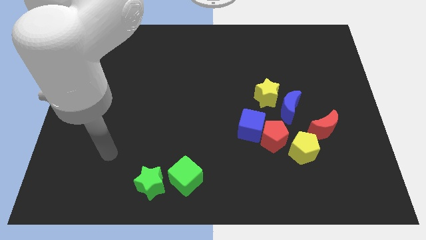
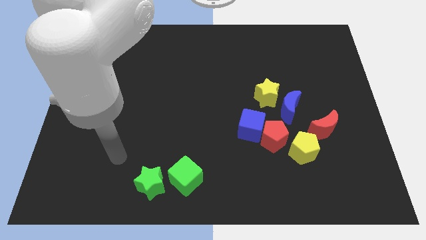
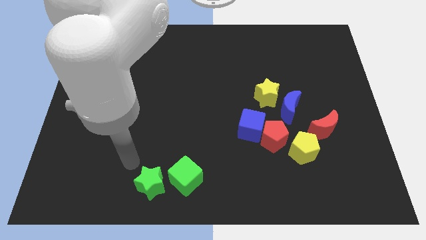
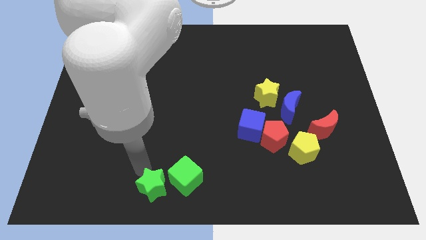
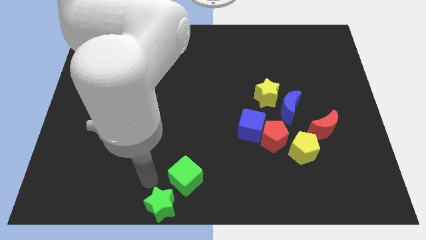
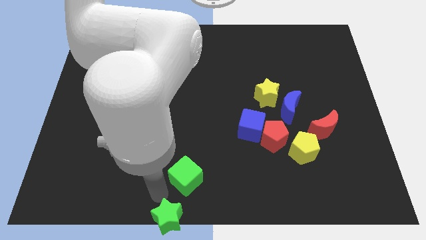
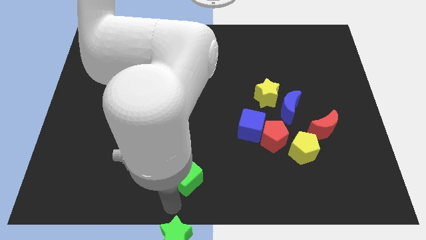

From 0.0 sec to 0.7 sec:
move the green cube away from the green star

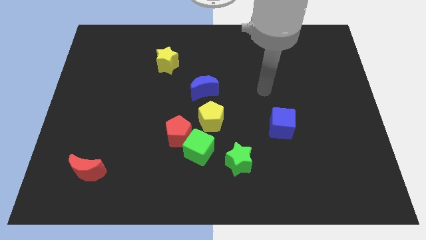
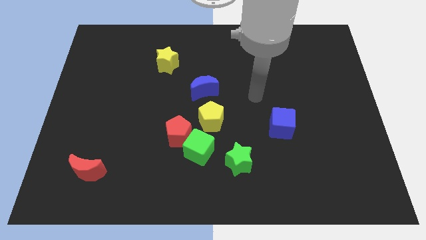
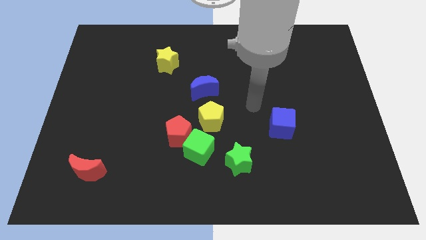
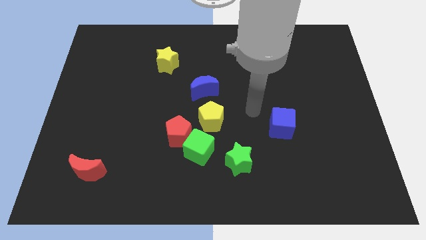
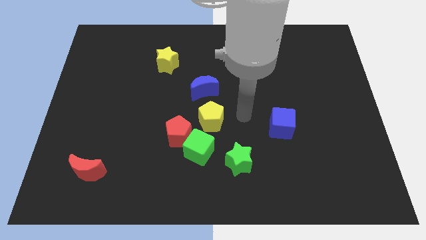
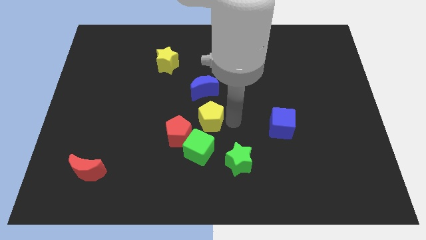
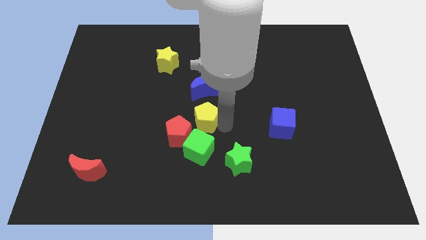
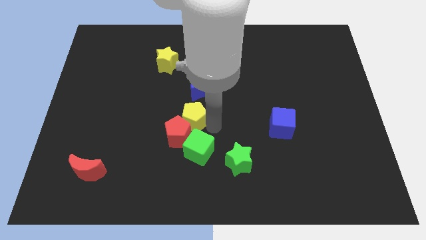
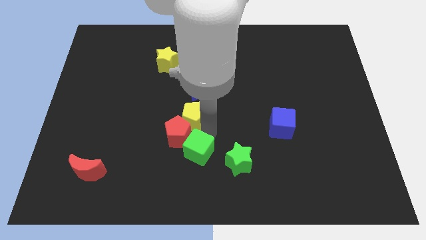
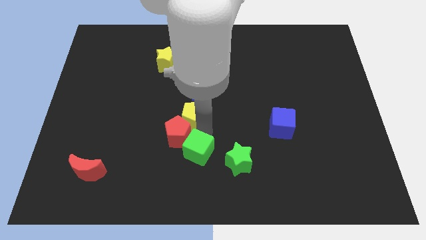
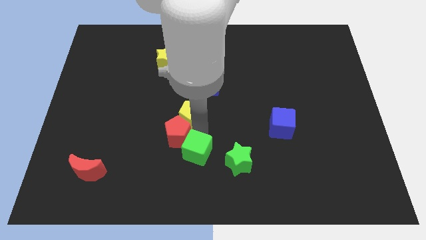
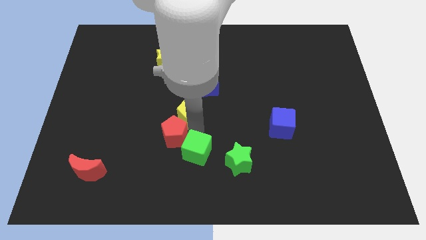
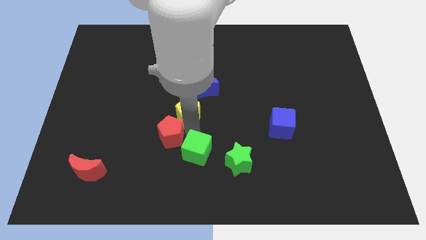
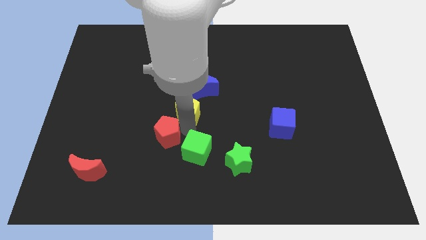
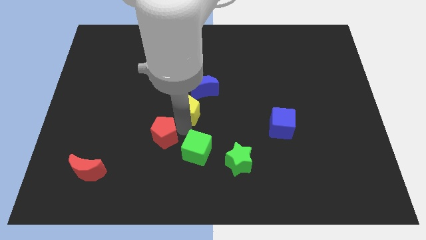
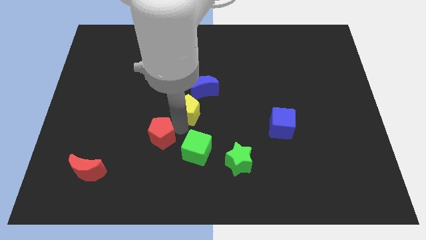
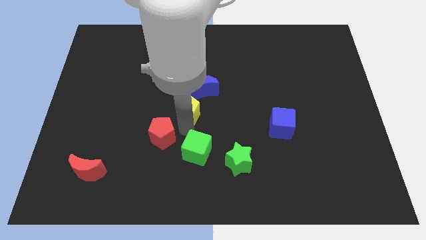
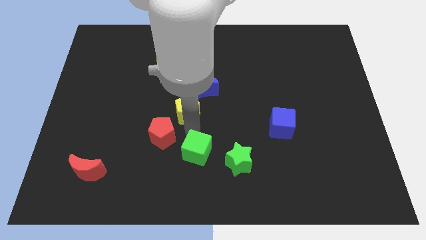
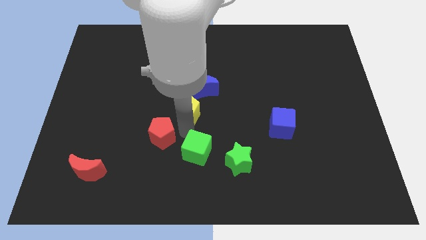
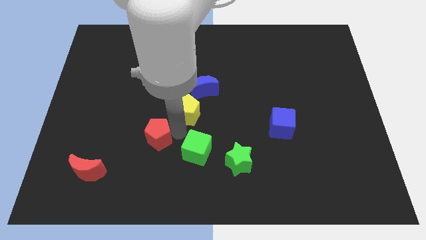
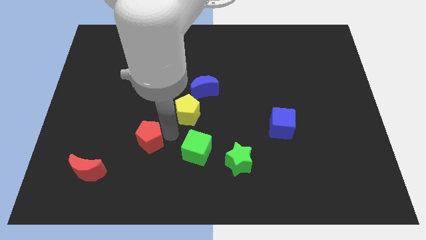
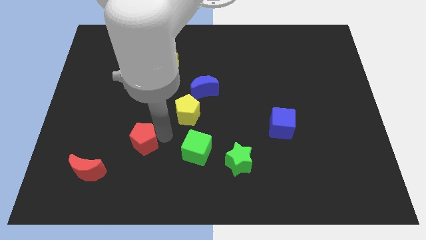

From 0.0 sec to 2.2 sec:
move the red pentagon away from the green cube and yellow pentagon

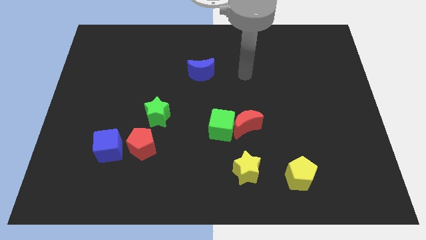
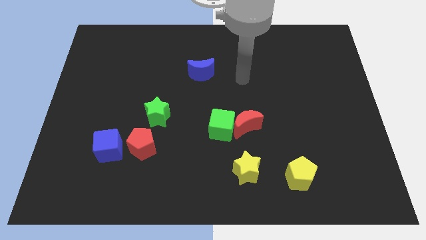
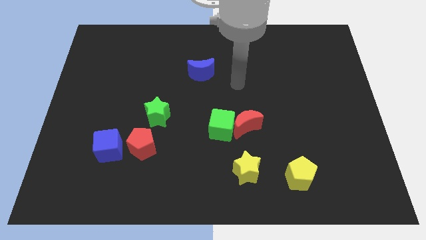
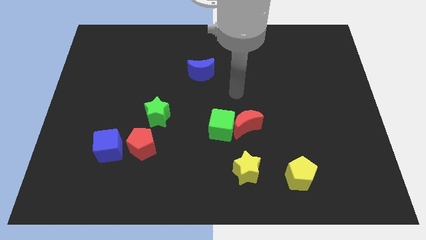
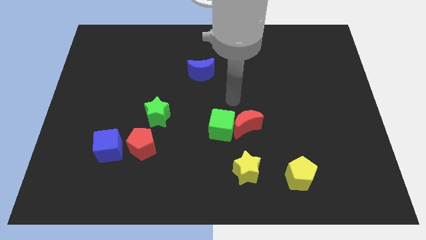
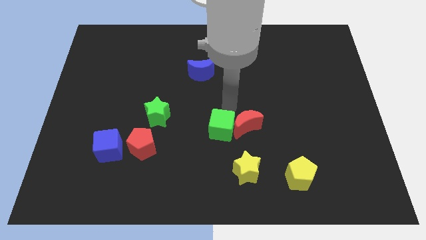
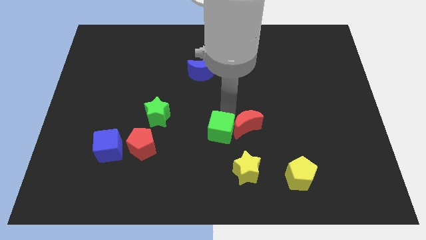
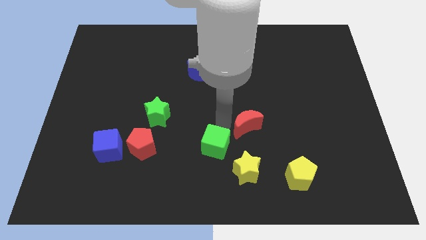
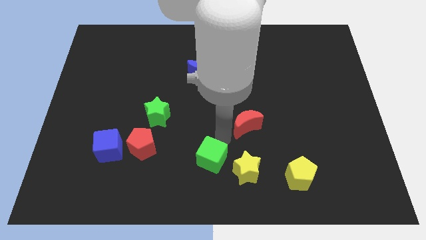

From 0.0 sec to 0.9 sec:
move the red moon away from the green cube

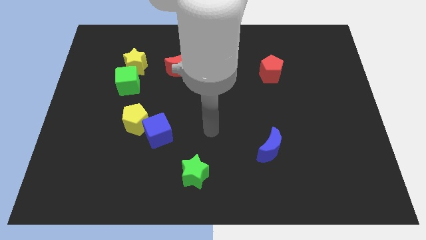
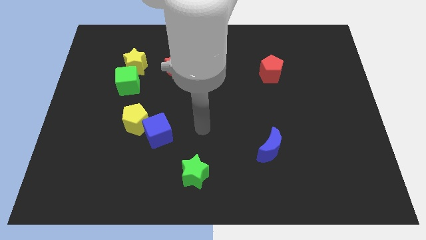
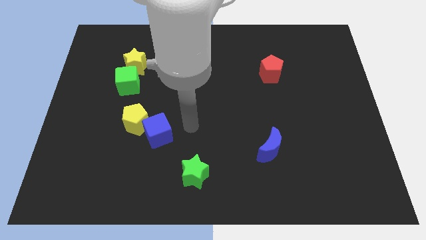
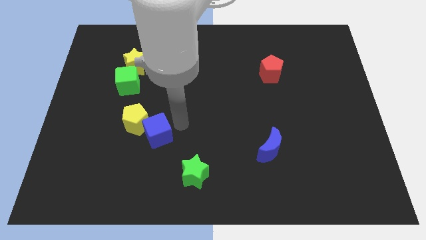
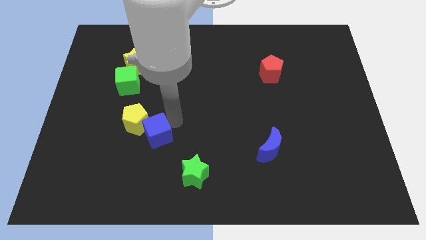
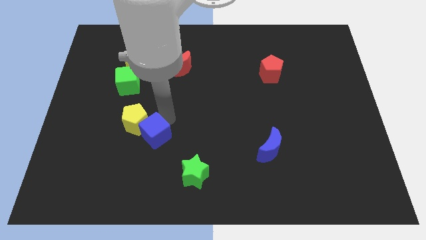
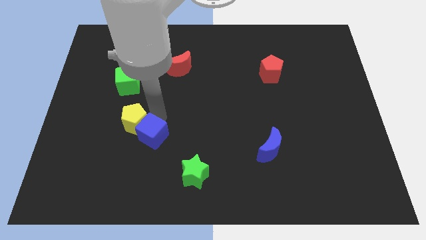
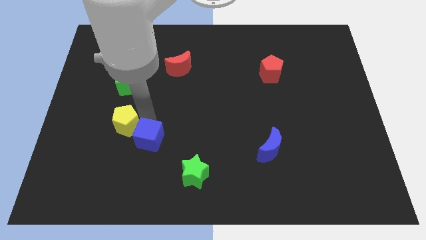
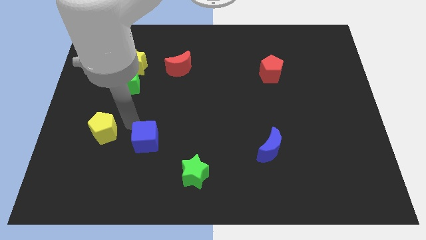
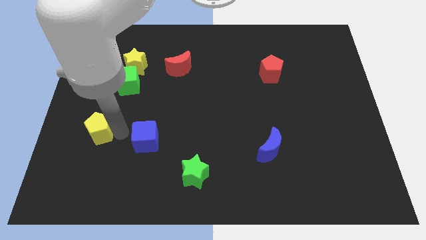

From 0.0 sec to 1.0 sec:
pull the blue cube apart from the yellow pentagon

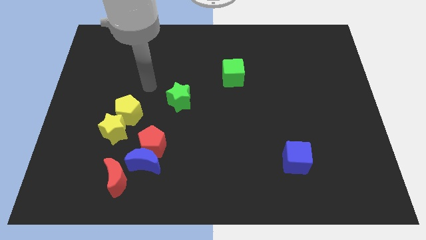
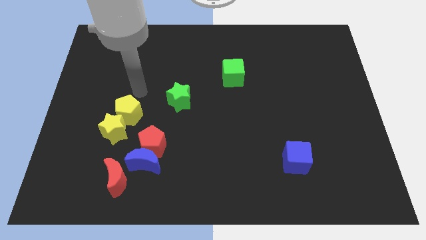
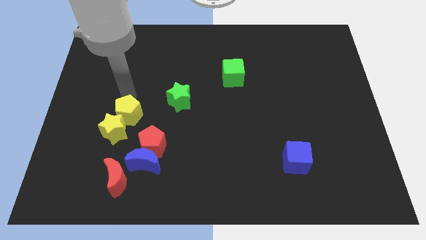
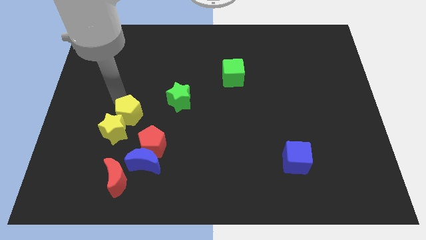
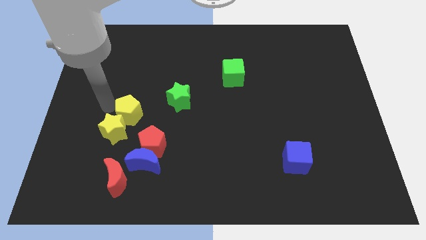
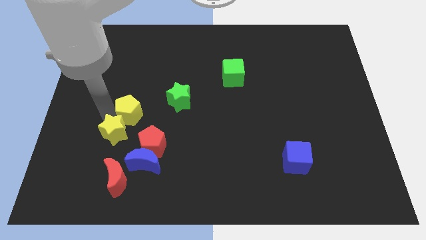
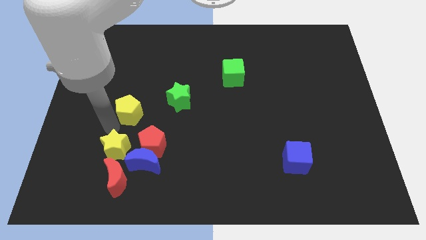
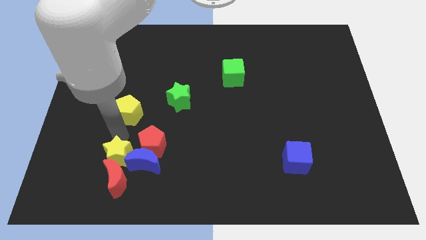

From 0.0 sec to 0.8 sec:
separate the yellow pentagon from the yellow star

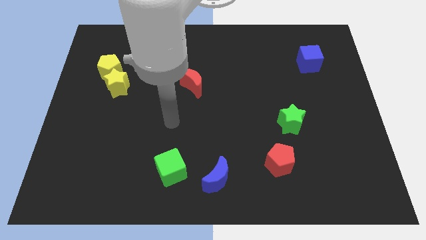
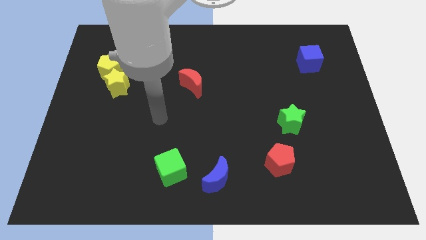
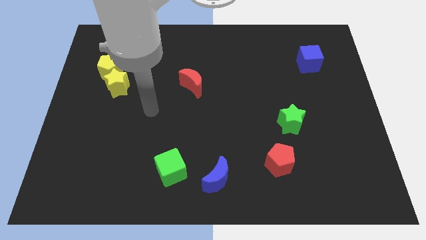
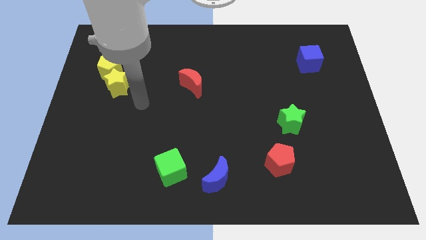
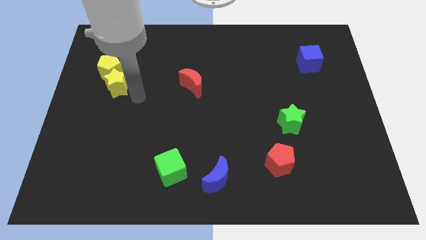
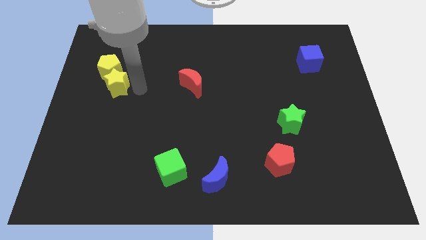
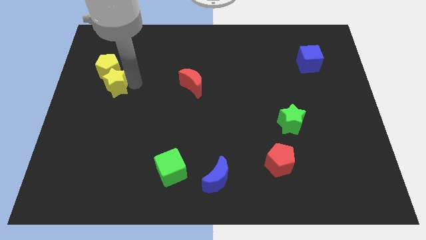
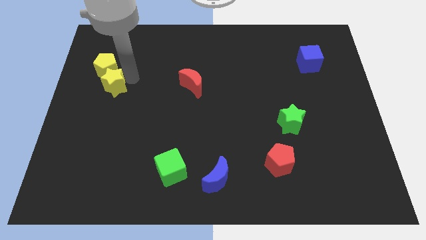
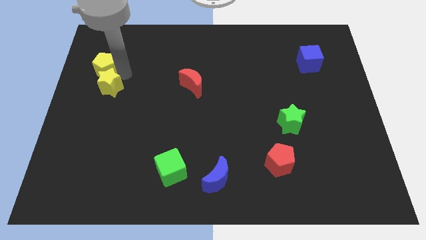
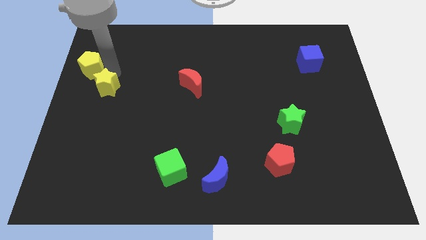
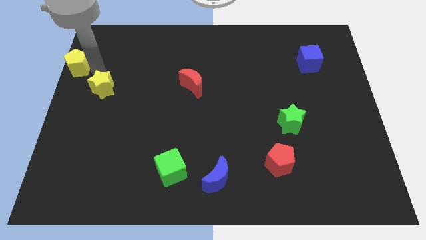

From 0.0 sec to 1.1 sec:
separate the yellow star from the yellow pentagon

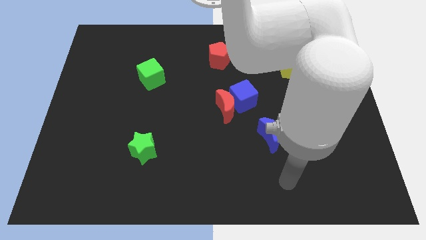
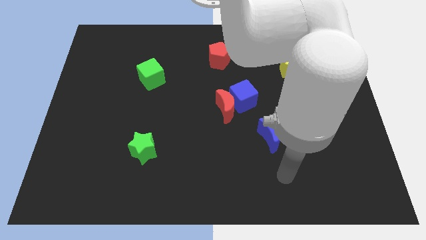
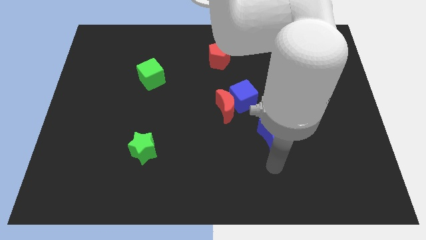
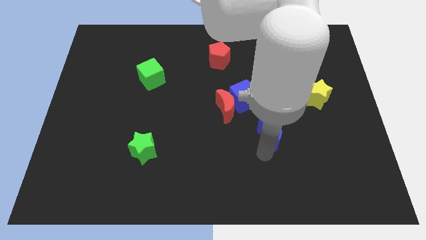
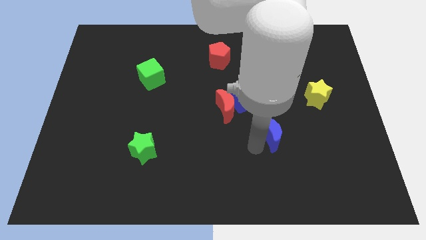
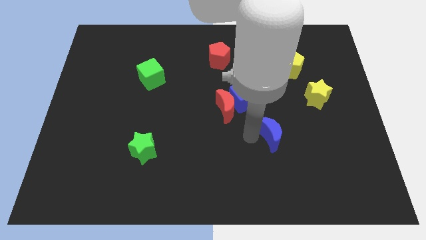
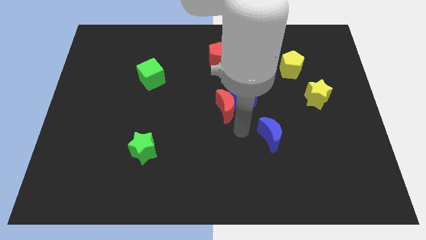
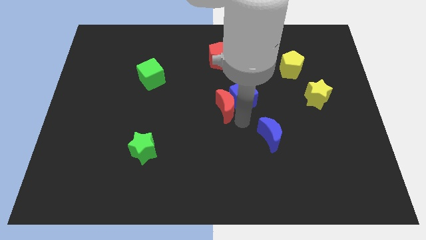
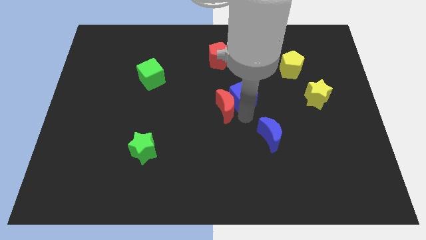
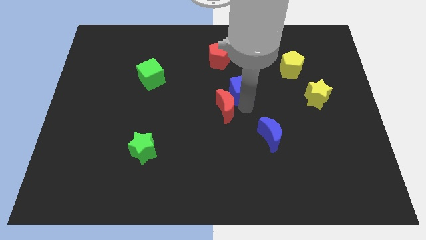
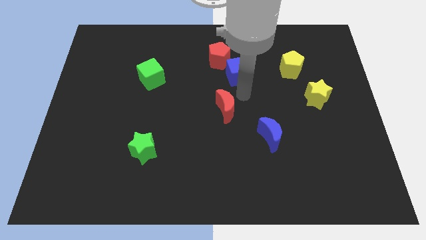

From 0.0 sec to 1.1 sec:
pull the red moon apart from the blue cube

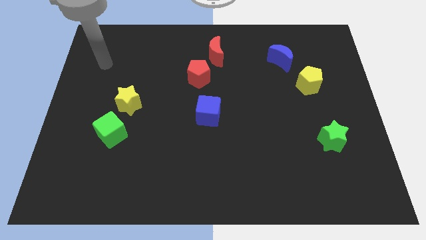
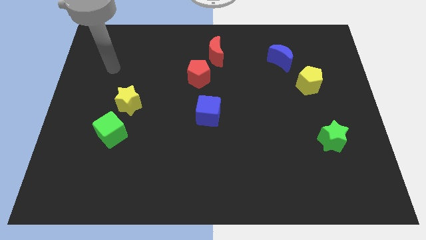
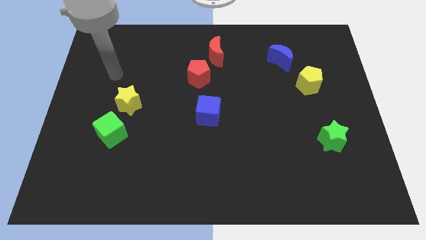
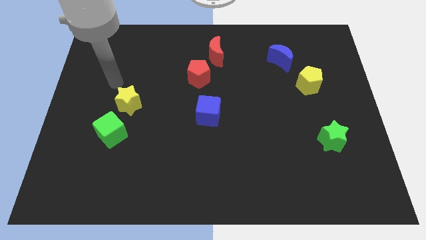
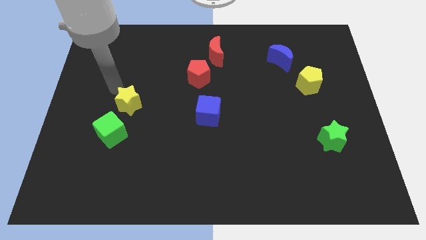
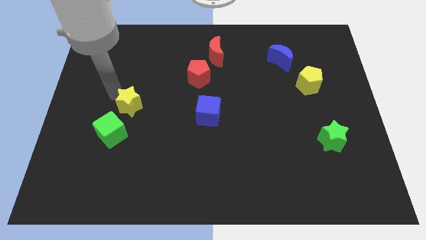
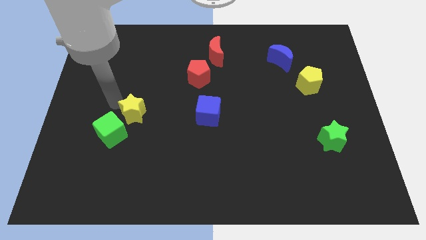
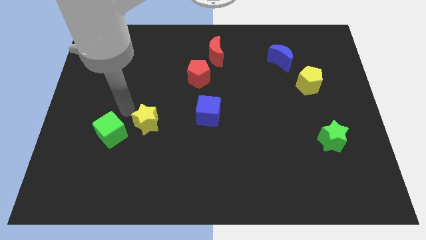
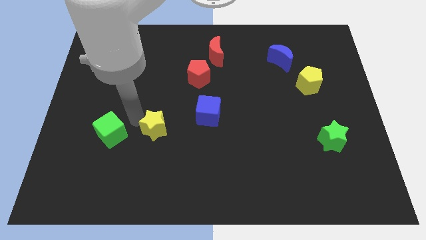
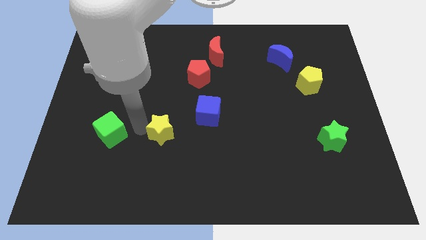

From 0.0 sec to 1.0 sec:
move the green cube away from the yellow star

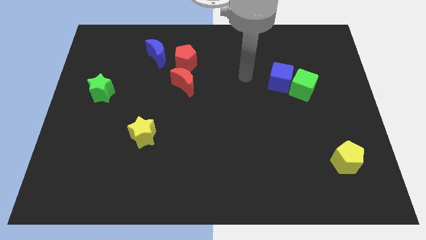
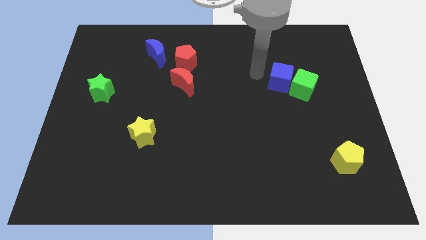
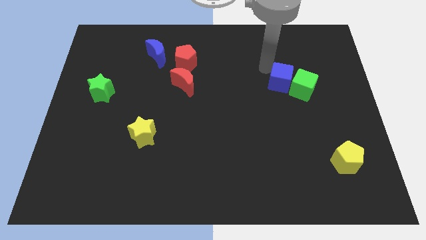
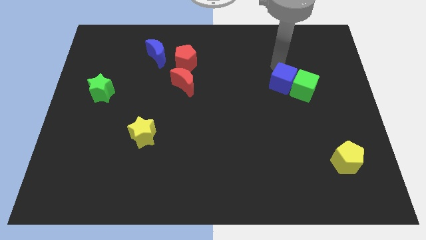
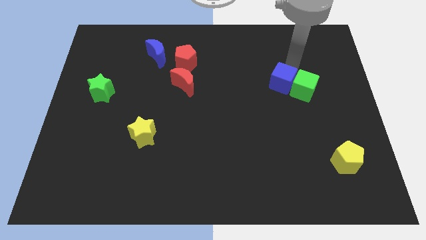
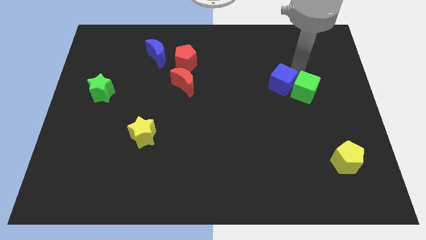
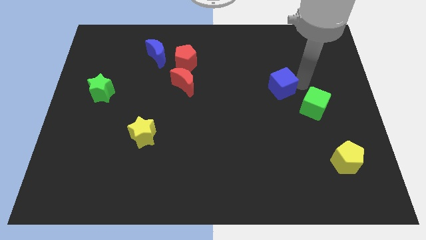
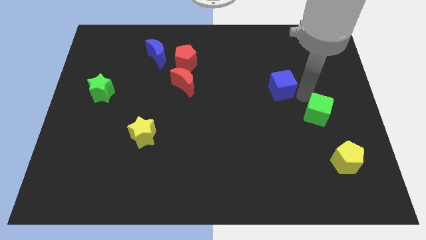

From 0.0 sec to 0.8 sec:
separate the blue cube from the green cube
